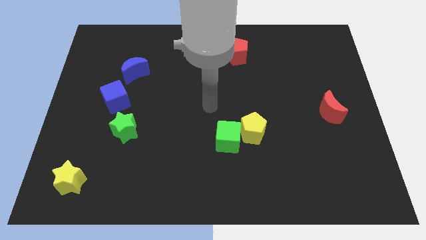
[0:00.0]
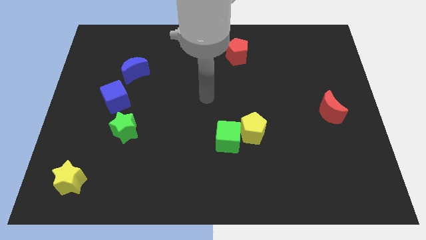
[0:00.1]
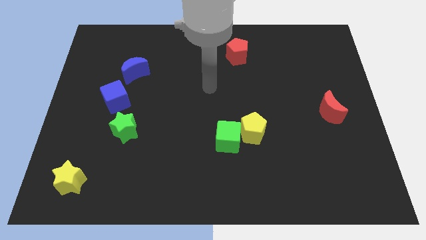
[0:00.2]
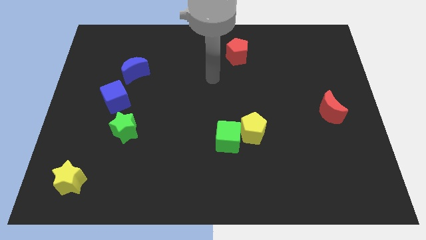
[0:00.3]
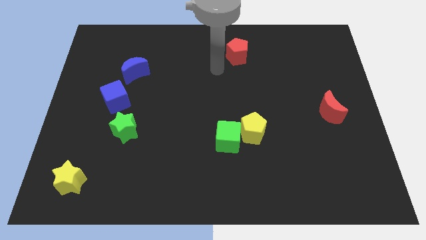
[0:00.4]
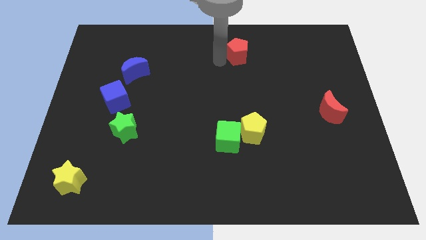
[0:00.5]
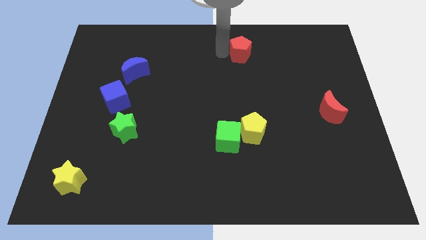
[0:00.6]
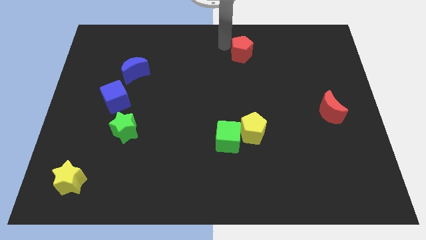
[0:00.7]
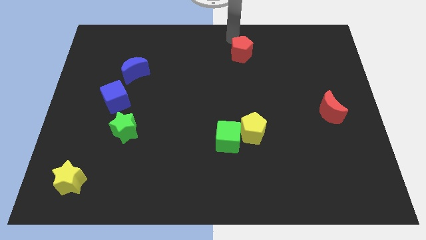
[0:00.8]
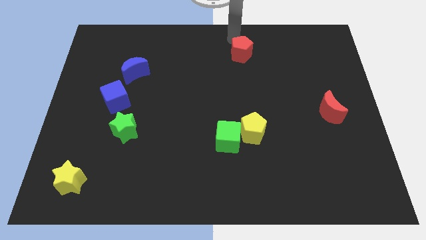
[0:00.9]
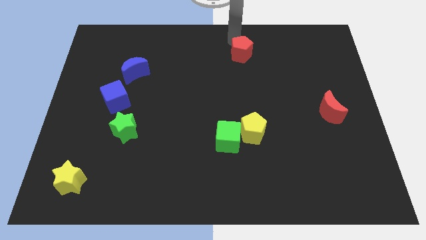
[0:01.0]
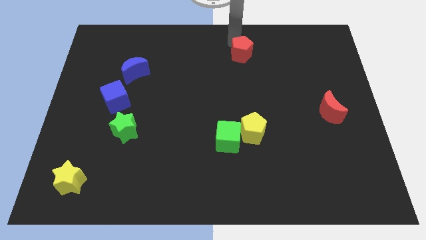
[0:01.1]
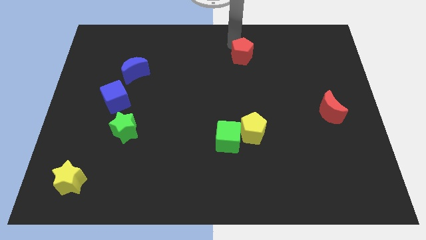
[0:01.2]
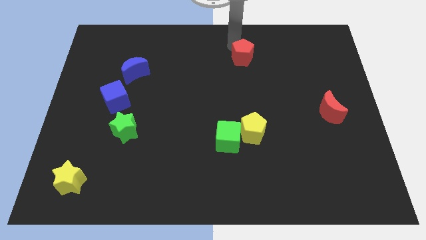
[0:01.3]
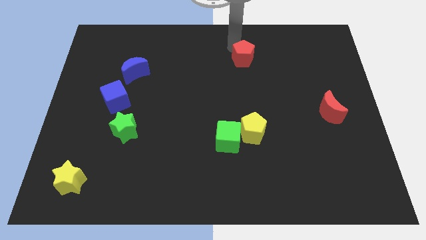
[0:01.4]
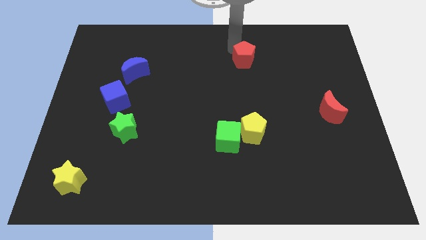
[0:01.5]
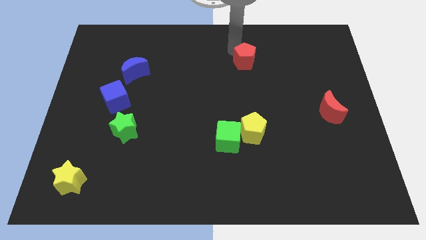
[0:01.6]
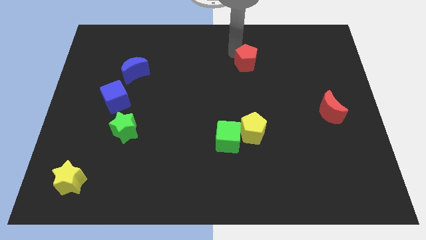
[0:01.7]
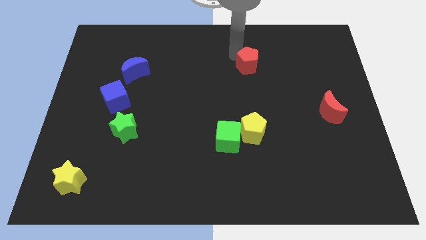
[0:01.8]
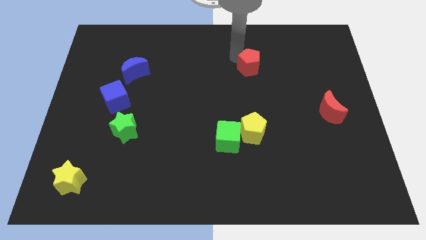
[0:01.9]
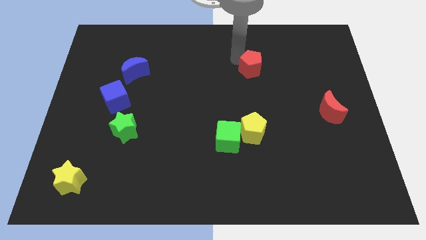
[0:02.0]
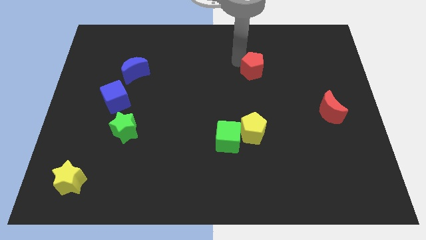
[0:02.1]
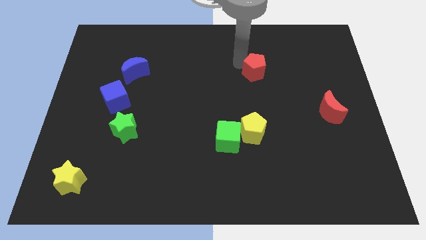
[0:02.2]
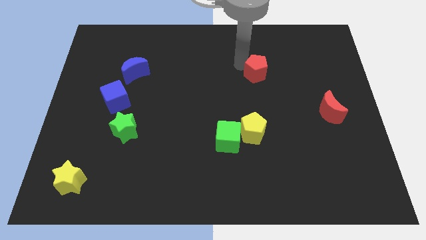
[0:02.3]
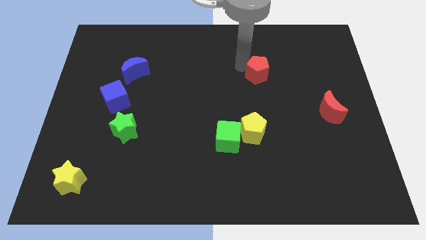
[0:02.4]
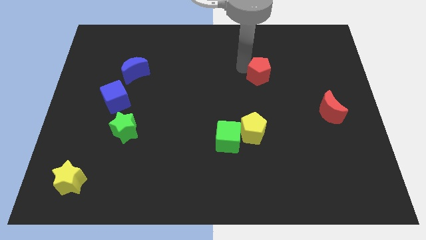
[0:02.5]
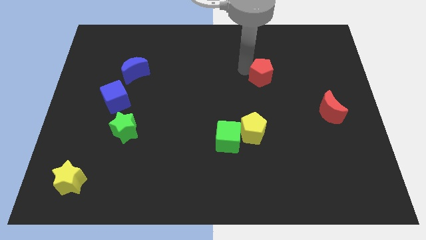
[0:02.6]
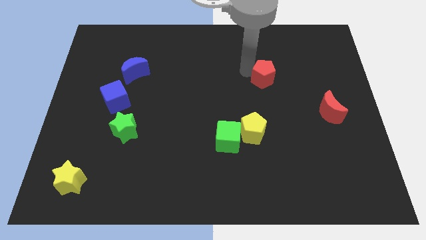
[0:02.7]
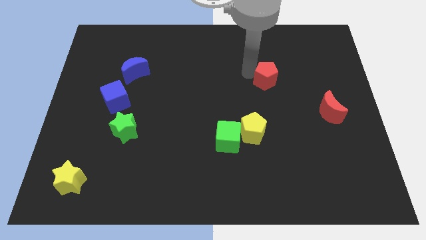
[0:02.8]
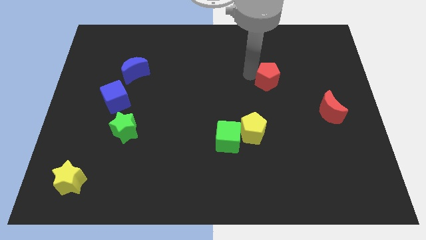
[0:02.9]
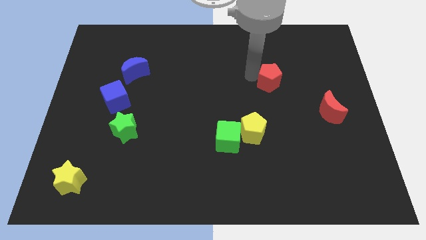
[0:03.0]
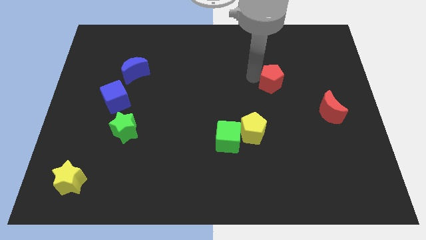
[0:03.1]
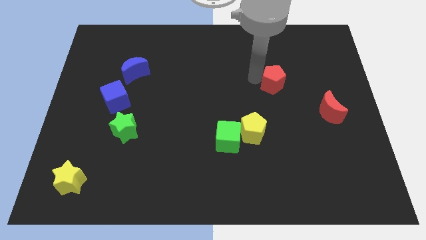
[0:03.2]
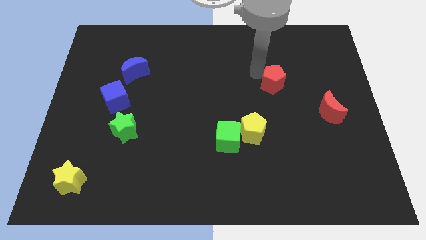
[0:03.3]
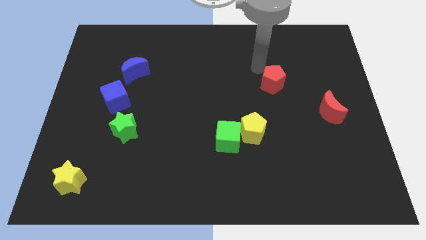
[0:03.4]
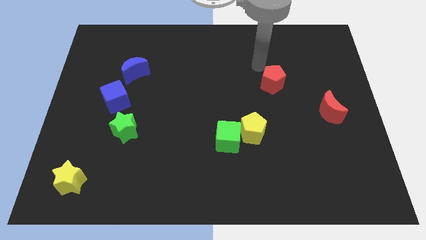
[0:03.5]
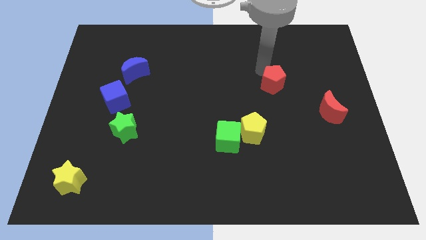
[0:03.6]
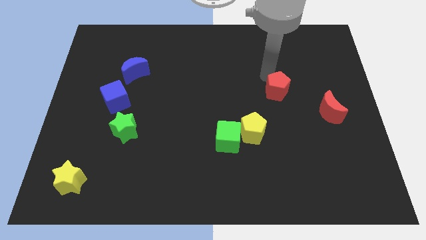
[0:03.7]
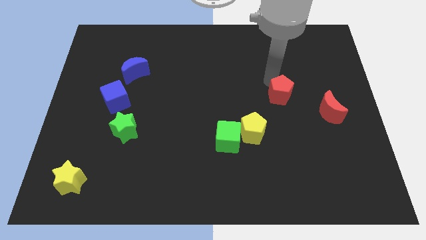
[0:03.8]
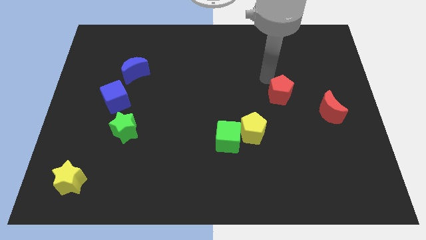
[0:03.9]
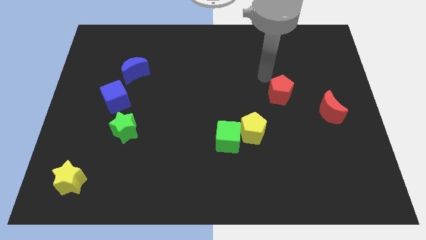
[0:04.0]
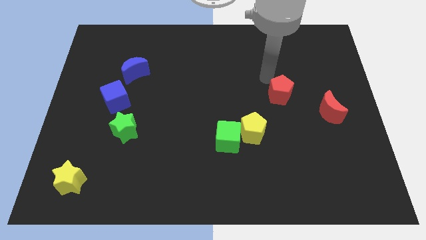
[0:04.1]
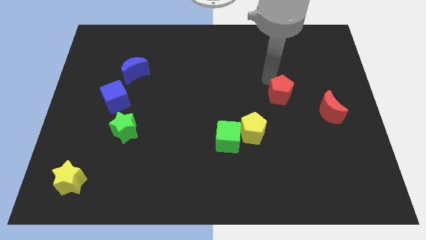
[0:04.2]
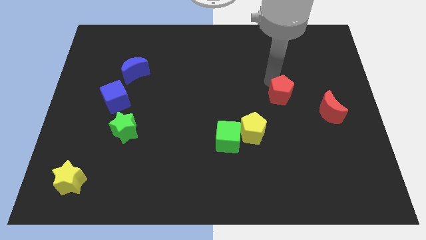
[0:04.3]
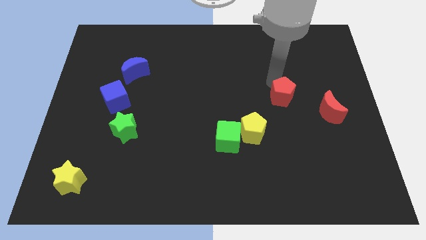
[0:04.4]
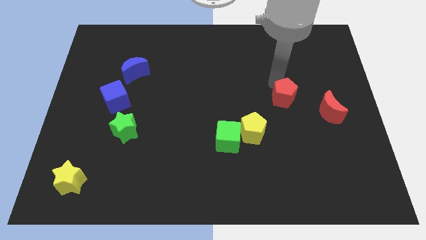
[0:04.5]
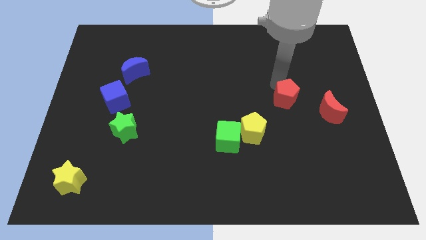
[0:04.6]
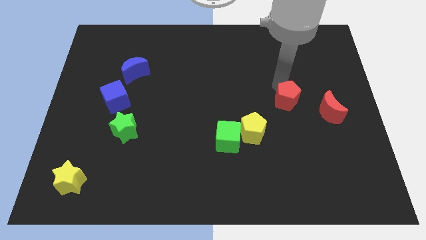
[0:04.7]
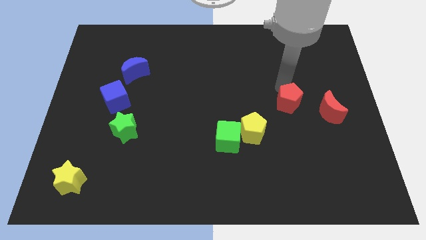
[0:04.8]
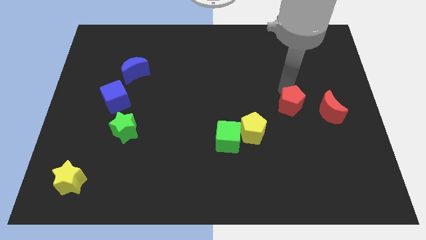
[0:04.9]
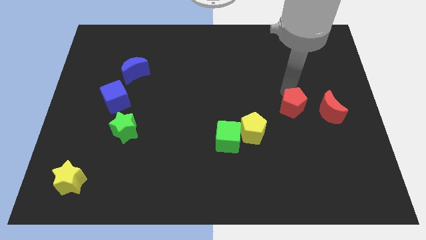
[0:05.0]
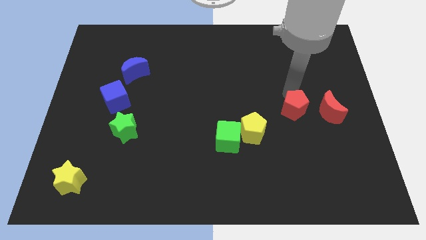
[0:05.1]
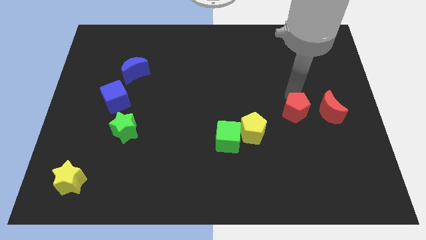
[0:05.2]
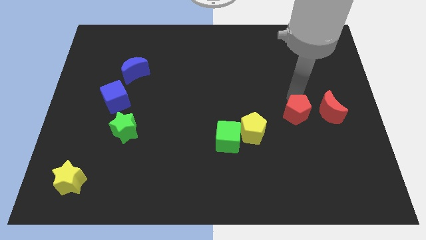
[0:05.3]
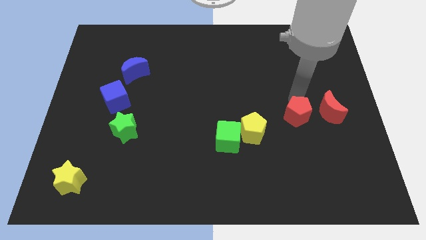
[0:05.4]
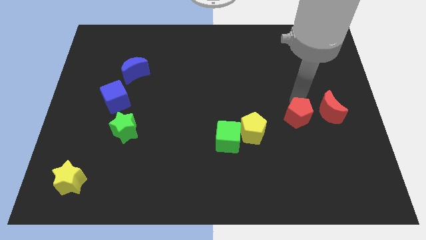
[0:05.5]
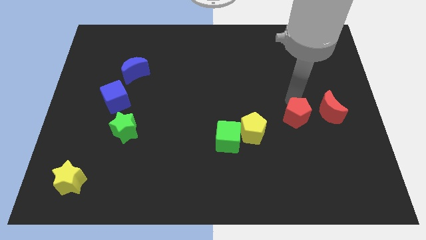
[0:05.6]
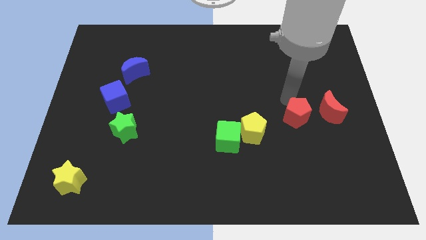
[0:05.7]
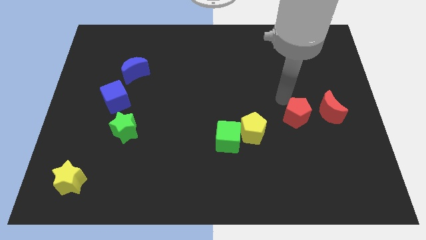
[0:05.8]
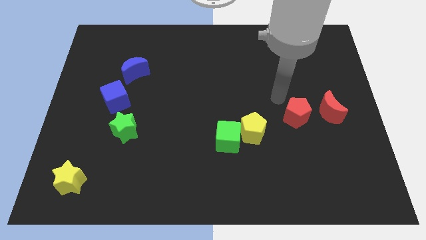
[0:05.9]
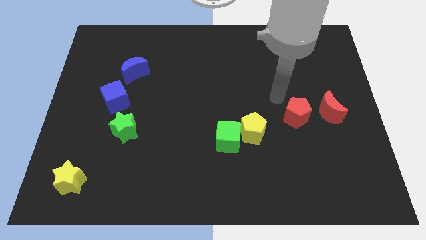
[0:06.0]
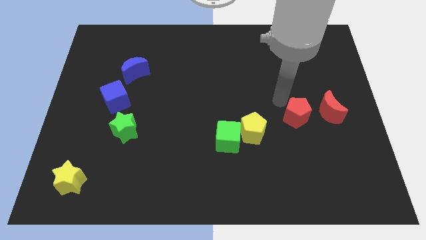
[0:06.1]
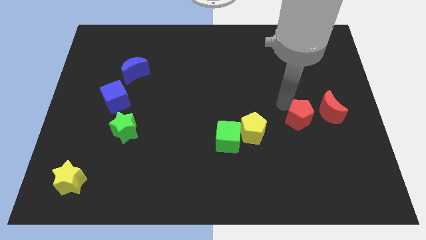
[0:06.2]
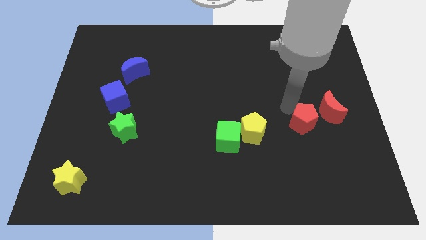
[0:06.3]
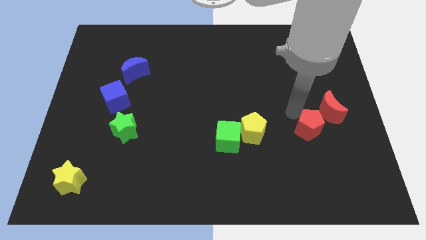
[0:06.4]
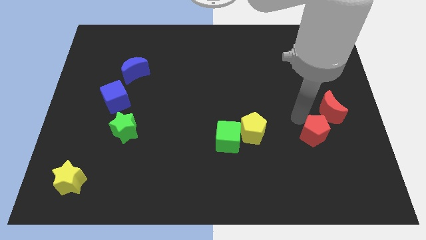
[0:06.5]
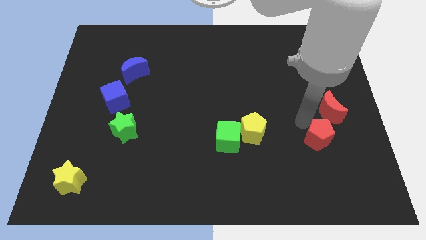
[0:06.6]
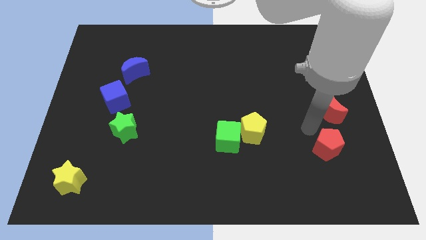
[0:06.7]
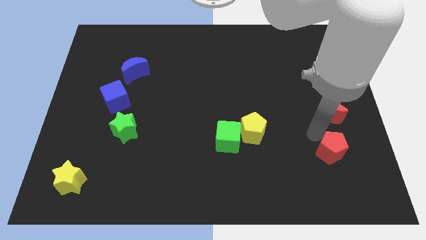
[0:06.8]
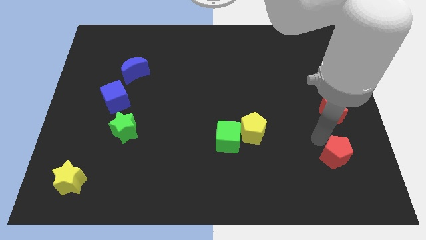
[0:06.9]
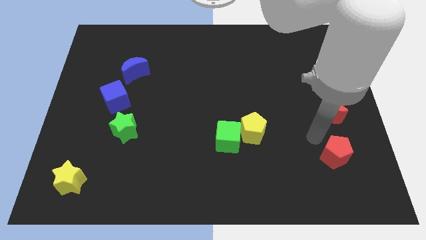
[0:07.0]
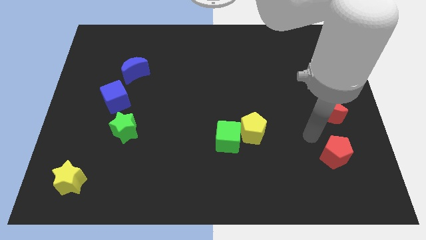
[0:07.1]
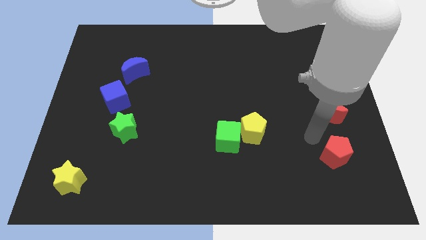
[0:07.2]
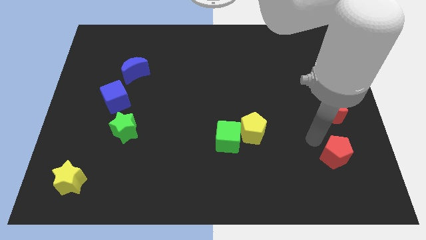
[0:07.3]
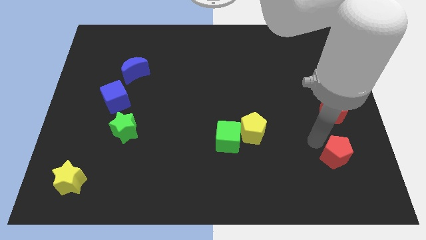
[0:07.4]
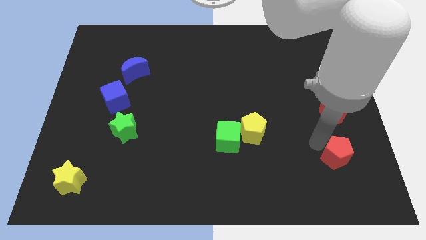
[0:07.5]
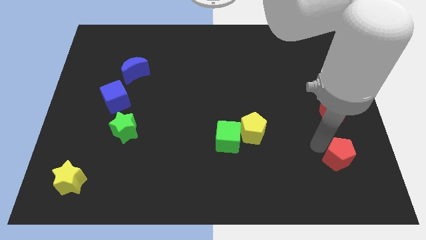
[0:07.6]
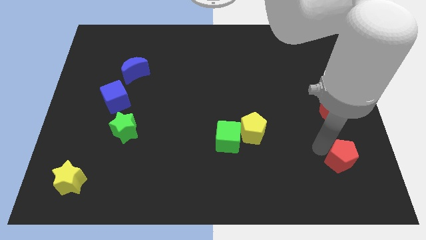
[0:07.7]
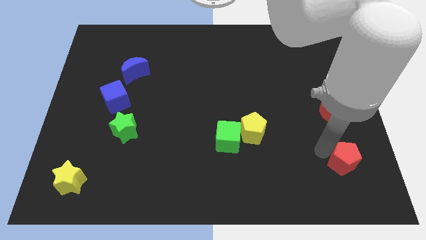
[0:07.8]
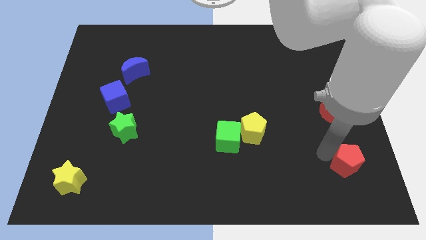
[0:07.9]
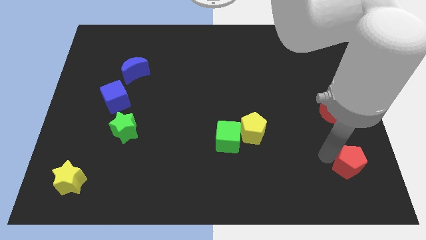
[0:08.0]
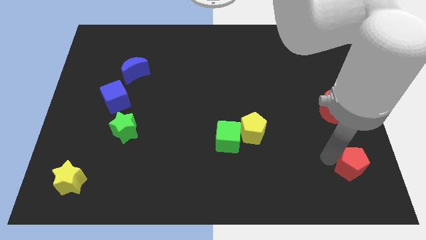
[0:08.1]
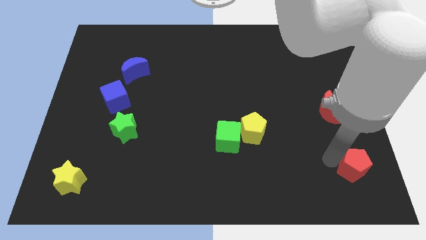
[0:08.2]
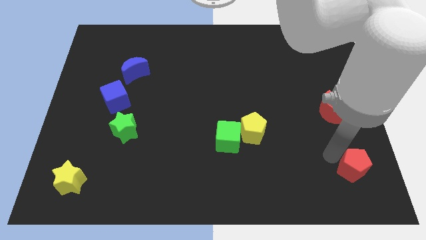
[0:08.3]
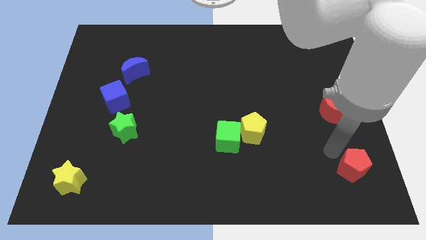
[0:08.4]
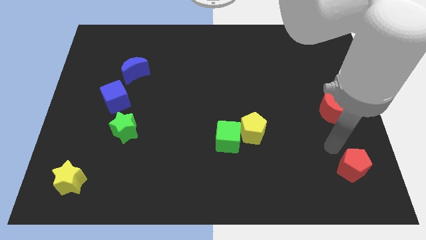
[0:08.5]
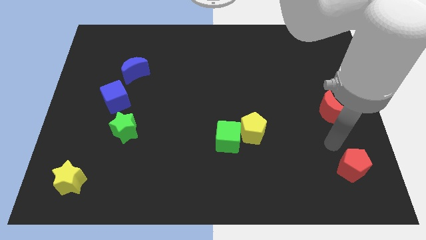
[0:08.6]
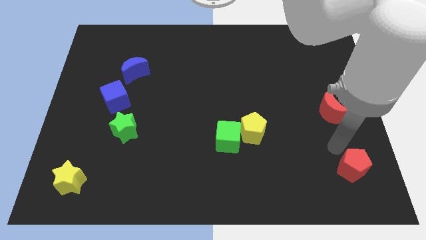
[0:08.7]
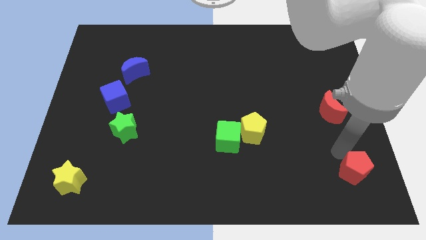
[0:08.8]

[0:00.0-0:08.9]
push the red pentagon to the bottom right of the board
